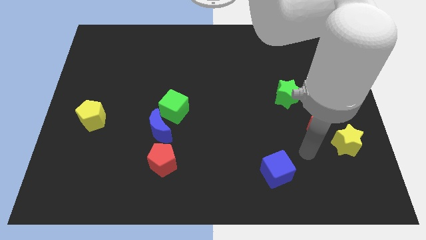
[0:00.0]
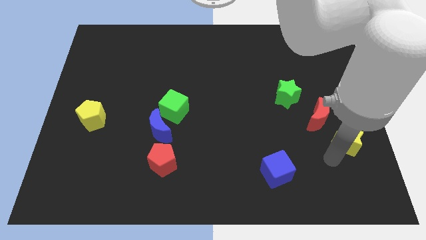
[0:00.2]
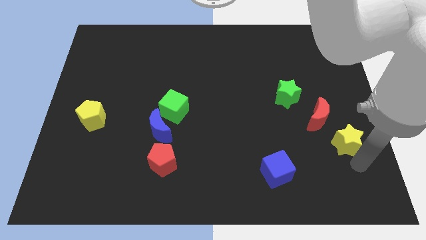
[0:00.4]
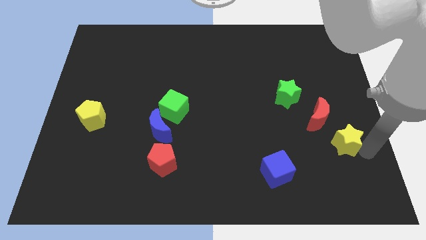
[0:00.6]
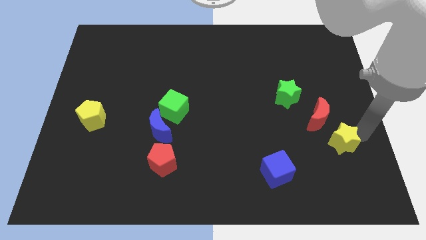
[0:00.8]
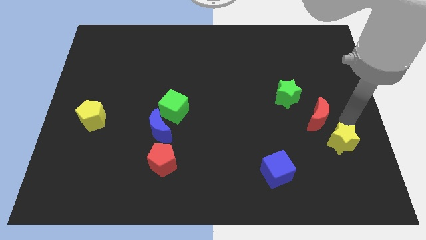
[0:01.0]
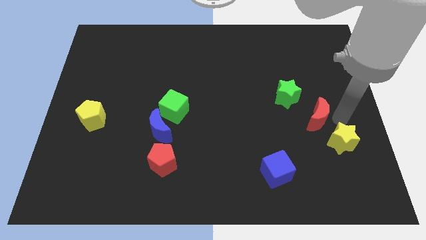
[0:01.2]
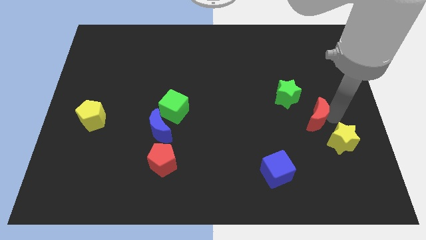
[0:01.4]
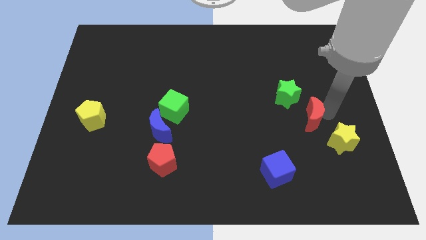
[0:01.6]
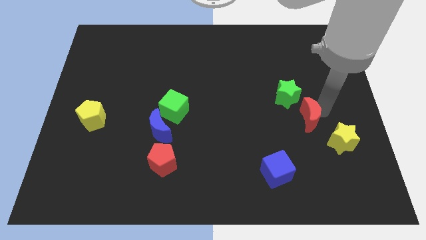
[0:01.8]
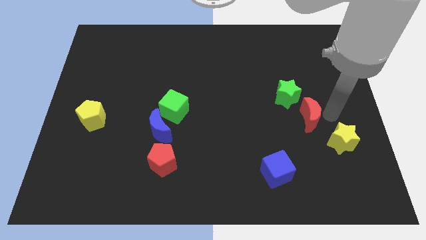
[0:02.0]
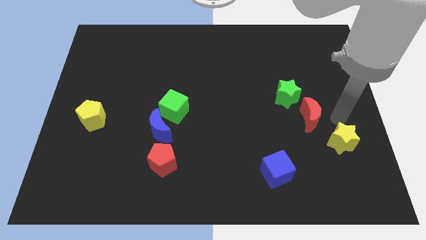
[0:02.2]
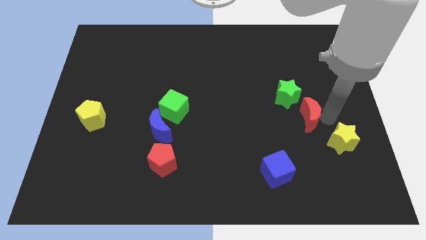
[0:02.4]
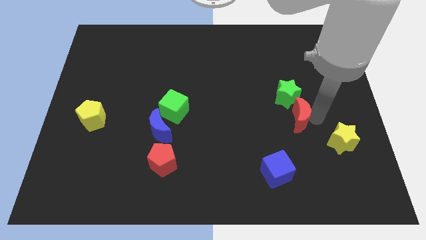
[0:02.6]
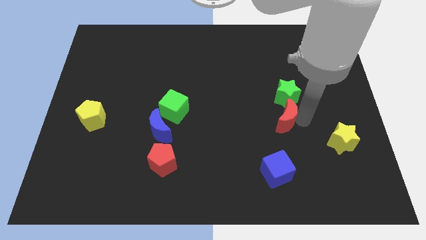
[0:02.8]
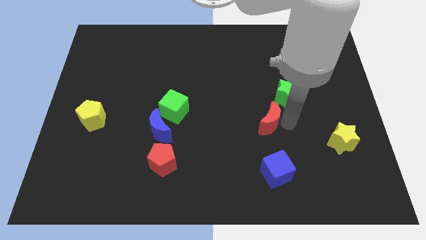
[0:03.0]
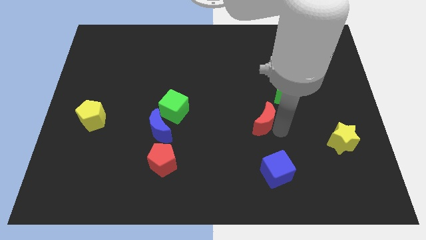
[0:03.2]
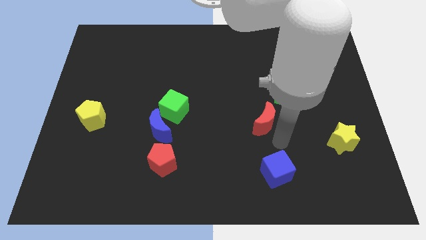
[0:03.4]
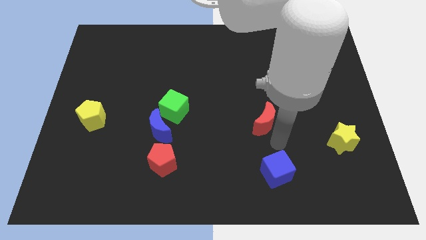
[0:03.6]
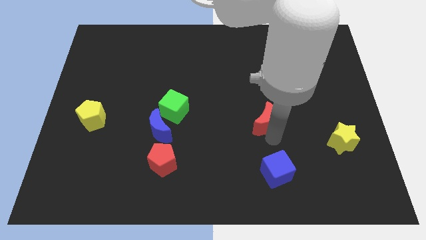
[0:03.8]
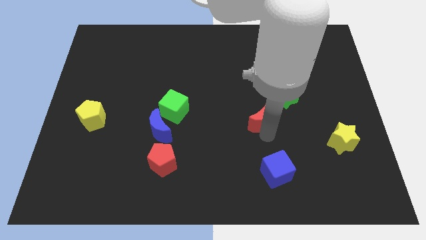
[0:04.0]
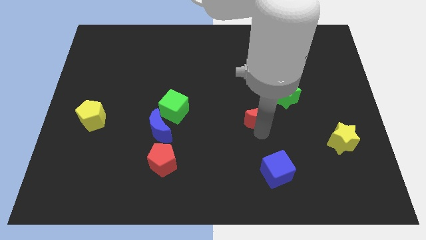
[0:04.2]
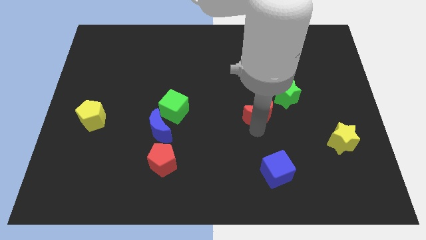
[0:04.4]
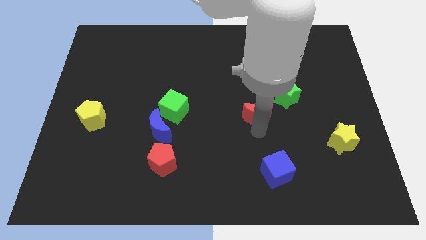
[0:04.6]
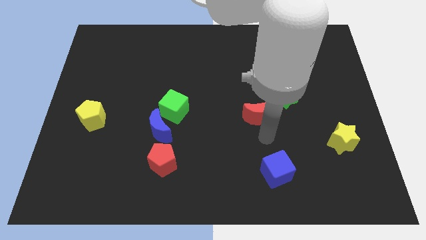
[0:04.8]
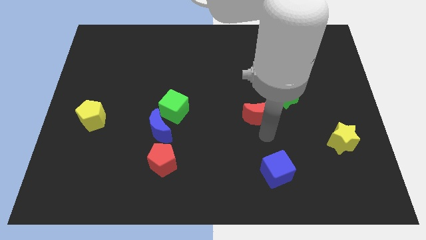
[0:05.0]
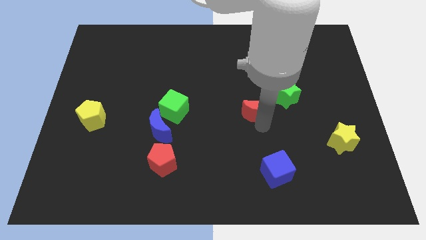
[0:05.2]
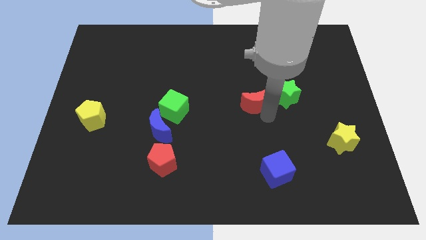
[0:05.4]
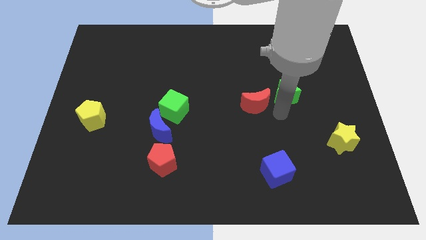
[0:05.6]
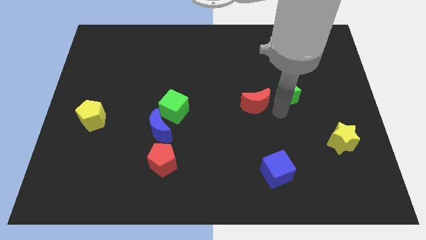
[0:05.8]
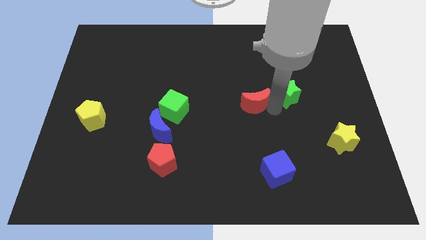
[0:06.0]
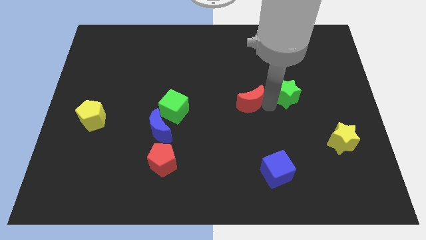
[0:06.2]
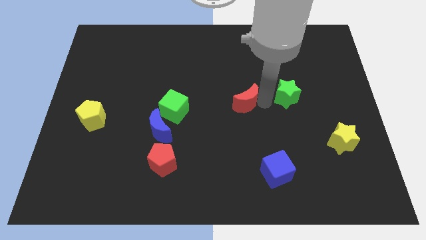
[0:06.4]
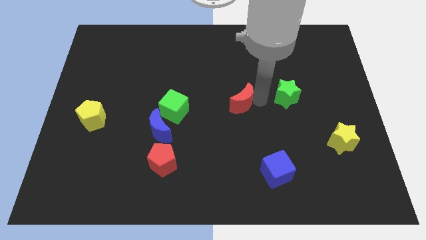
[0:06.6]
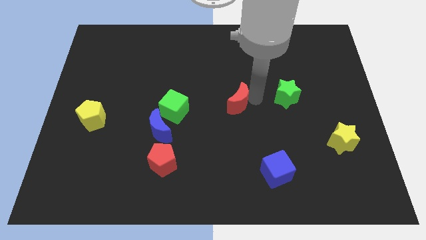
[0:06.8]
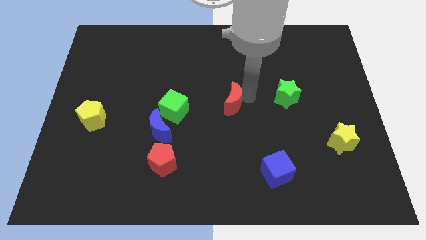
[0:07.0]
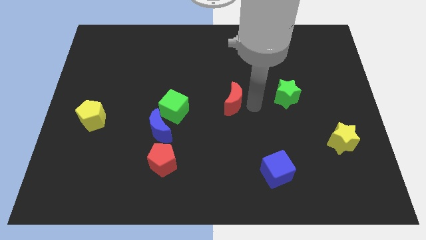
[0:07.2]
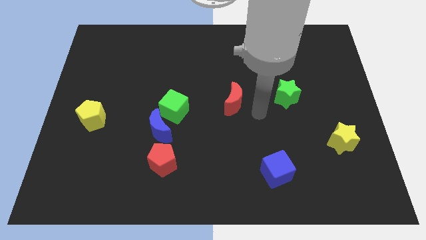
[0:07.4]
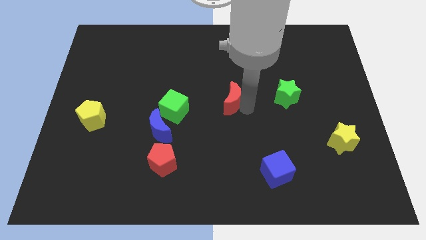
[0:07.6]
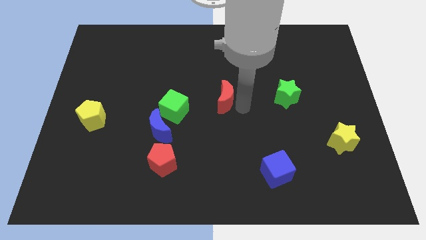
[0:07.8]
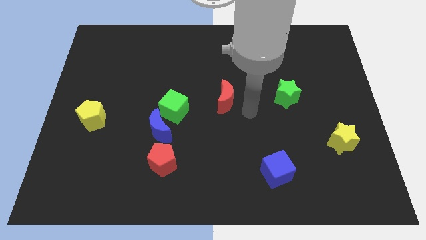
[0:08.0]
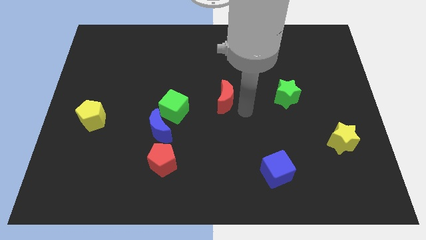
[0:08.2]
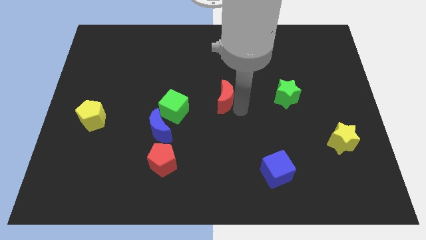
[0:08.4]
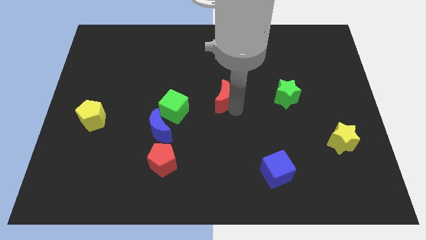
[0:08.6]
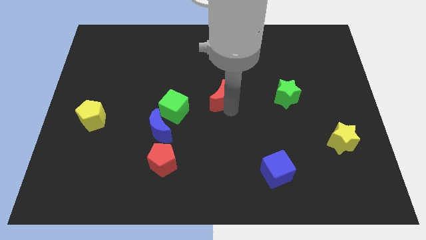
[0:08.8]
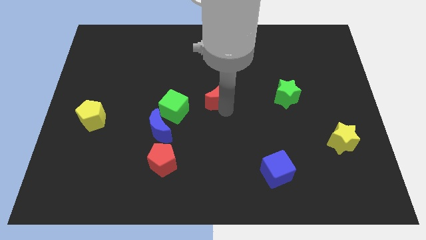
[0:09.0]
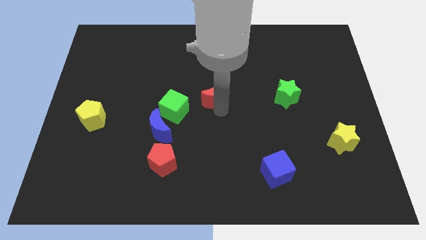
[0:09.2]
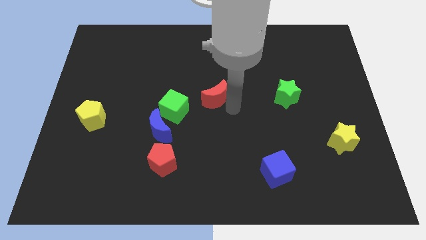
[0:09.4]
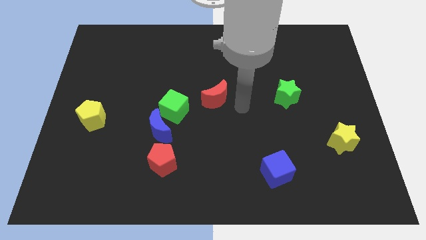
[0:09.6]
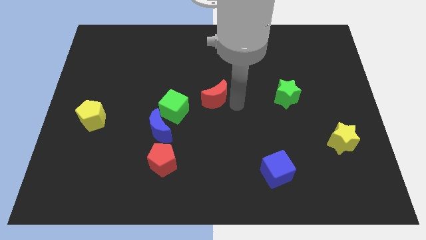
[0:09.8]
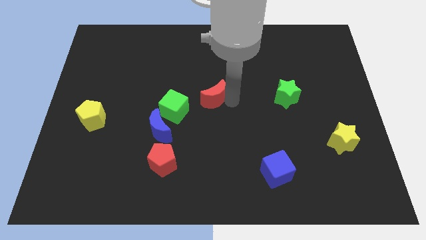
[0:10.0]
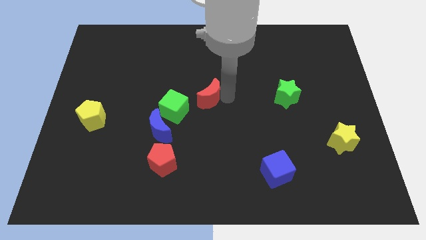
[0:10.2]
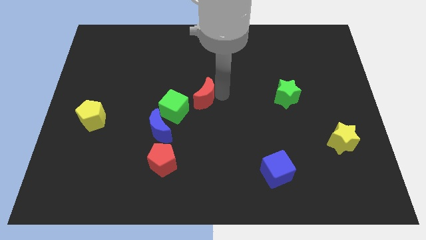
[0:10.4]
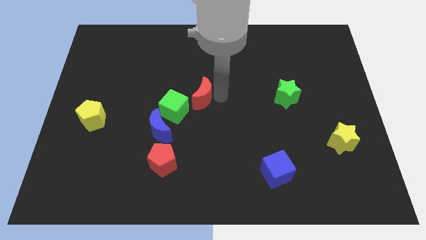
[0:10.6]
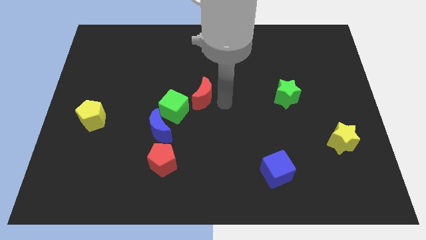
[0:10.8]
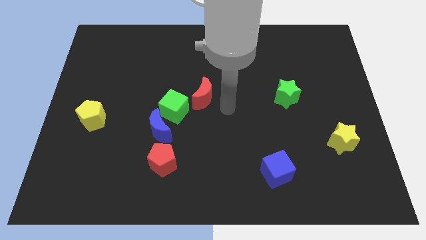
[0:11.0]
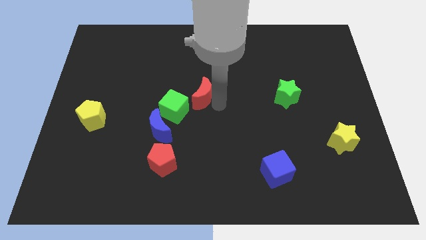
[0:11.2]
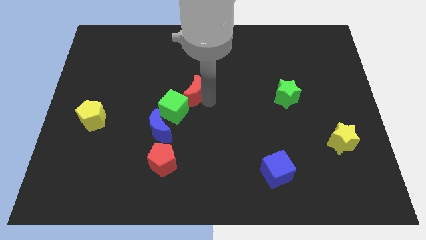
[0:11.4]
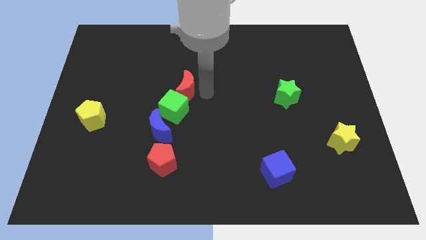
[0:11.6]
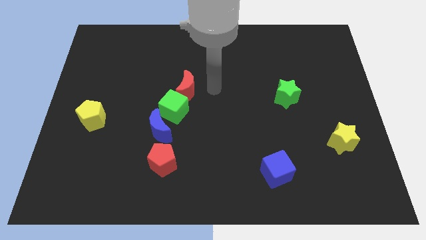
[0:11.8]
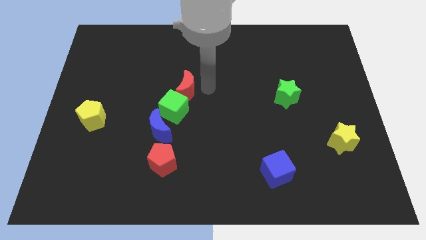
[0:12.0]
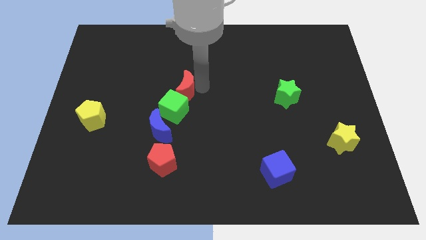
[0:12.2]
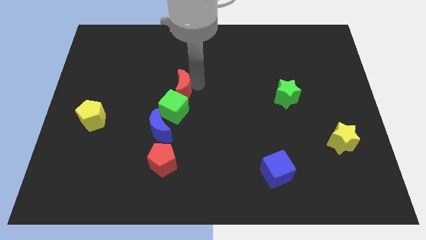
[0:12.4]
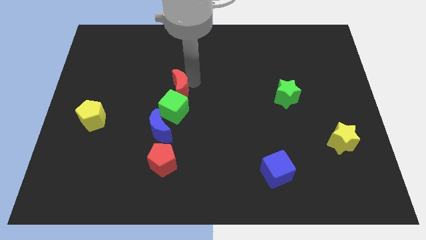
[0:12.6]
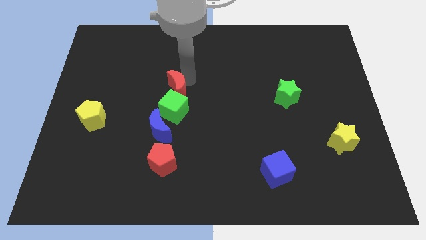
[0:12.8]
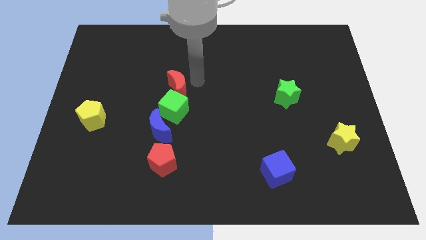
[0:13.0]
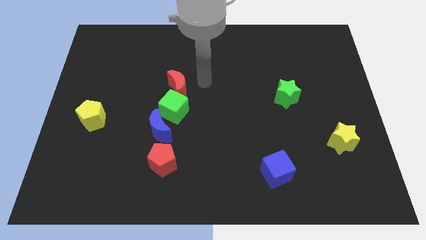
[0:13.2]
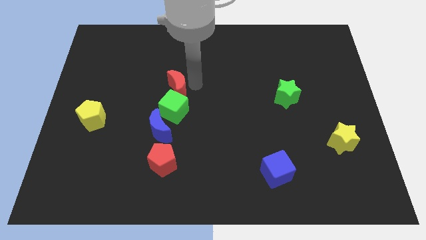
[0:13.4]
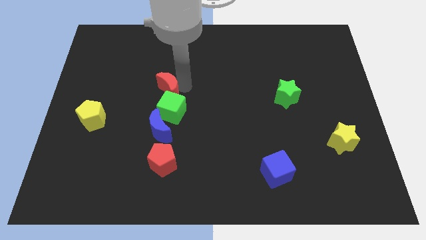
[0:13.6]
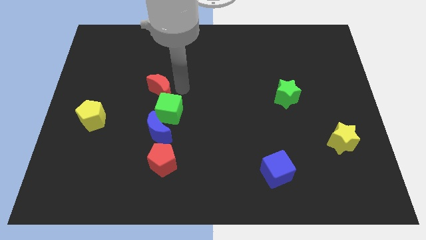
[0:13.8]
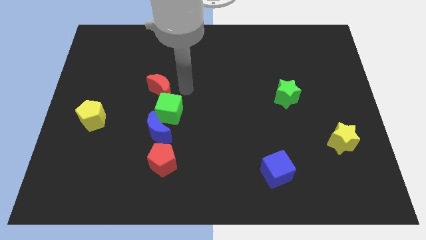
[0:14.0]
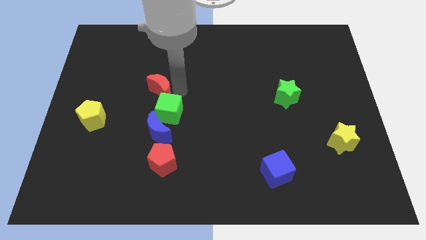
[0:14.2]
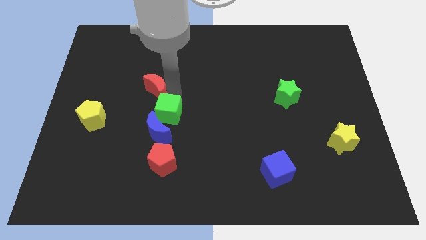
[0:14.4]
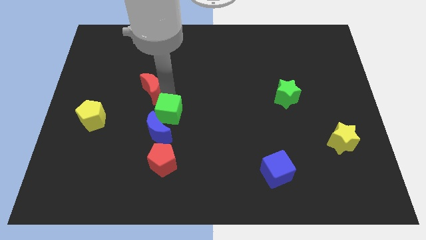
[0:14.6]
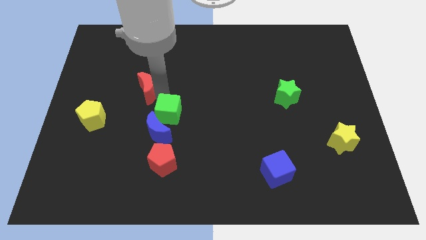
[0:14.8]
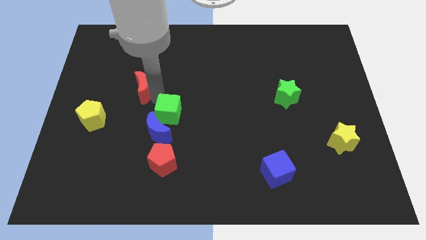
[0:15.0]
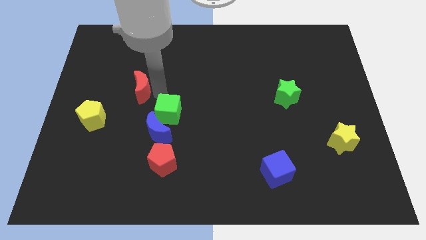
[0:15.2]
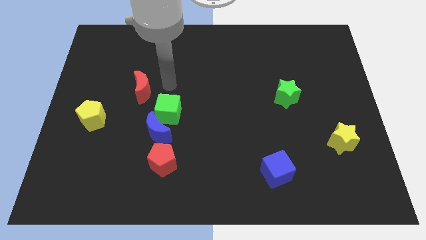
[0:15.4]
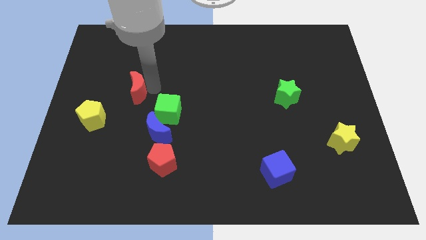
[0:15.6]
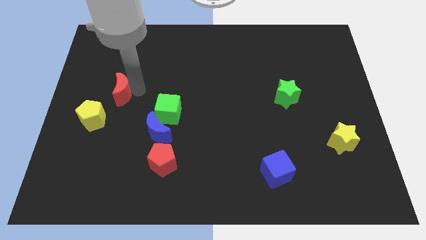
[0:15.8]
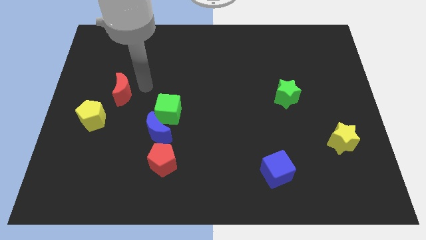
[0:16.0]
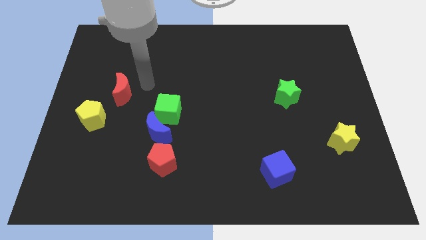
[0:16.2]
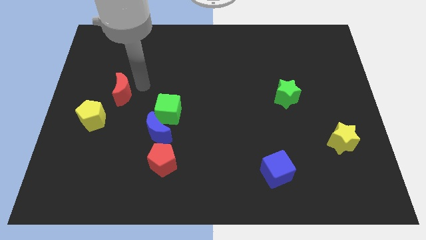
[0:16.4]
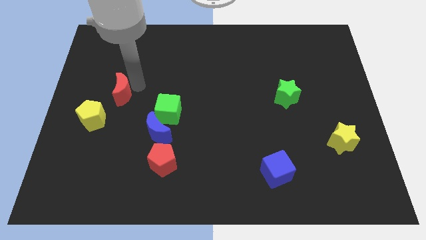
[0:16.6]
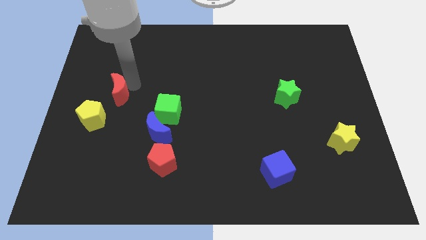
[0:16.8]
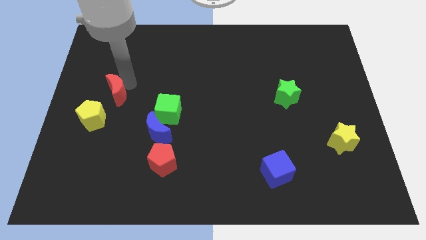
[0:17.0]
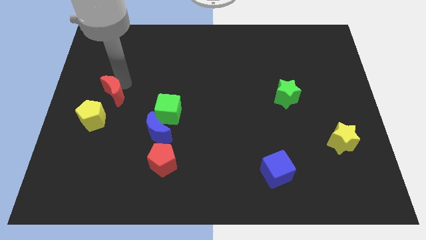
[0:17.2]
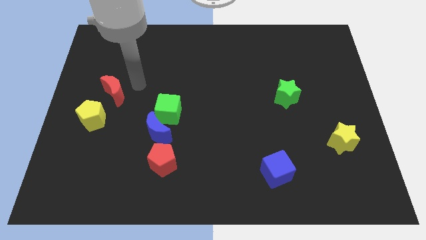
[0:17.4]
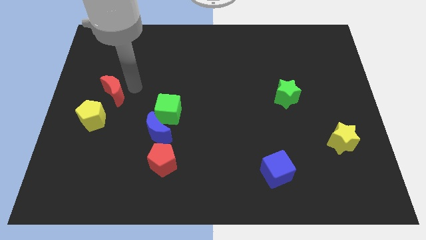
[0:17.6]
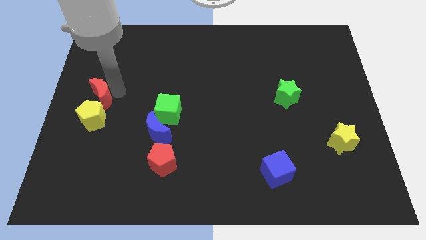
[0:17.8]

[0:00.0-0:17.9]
put the red moon to the center left
